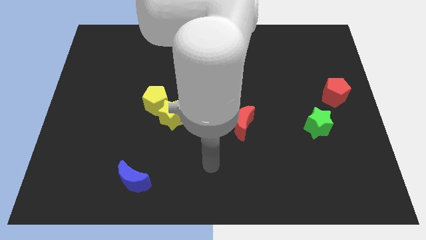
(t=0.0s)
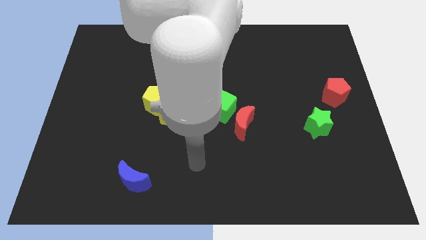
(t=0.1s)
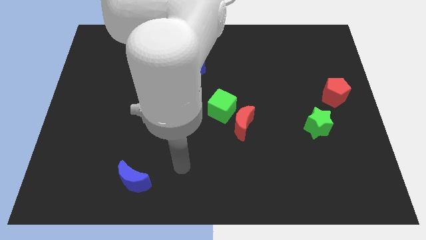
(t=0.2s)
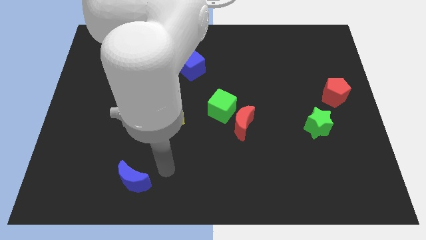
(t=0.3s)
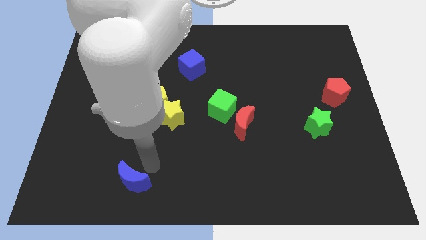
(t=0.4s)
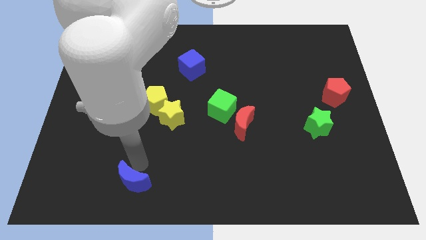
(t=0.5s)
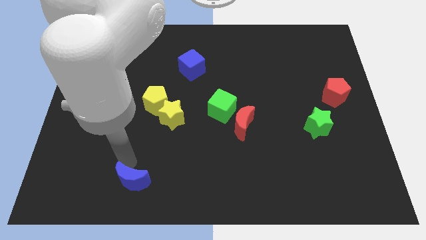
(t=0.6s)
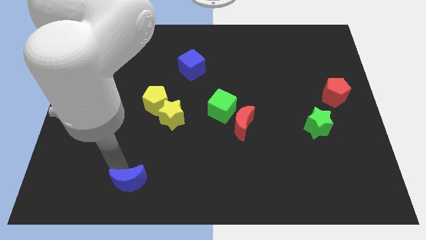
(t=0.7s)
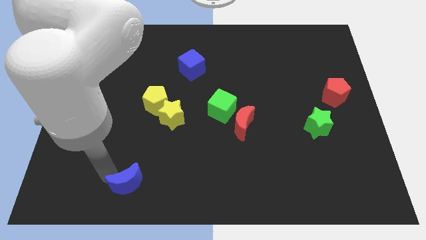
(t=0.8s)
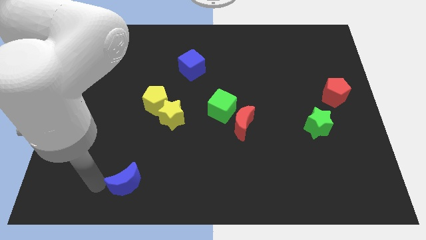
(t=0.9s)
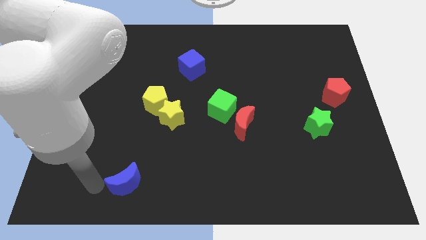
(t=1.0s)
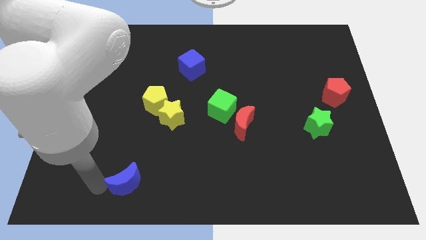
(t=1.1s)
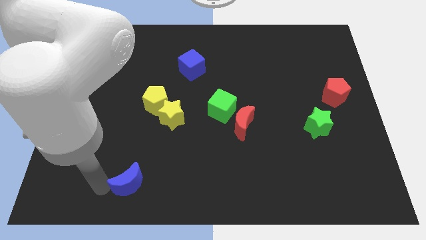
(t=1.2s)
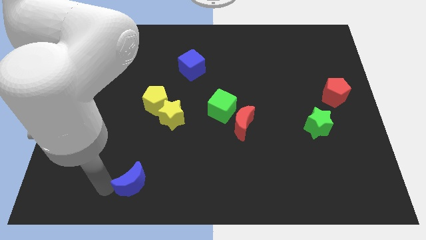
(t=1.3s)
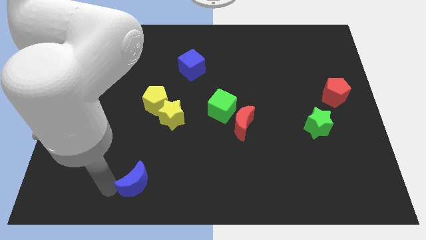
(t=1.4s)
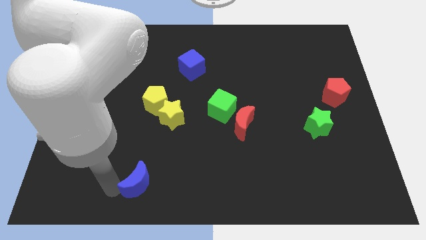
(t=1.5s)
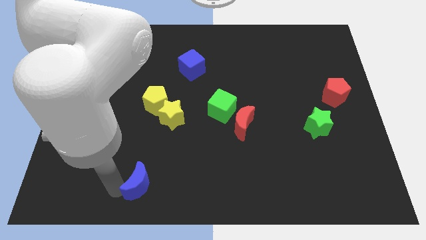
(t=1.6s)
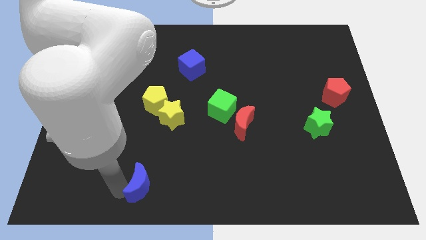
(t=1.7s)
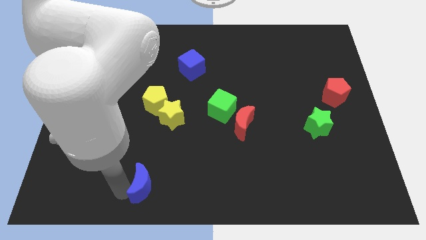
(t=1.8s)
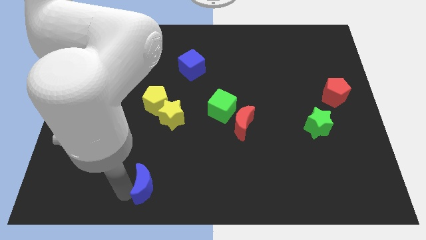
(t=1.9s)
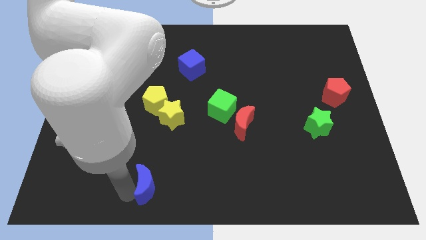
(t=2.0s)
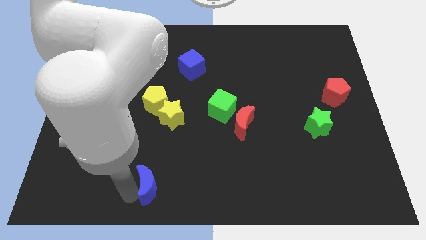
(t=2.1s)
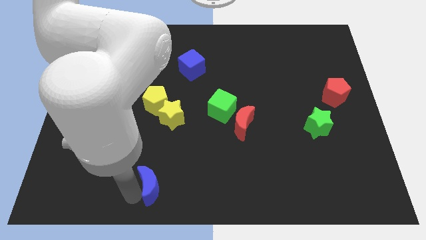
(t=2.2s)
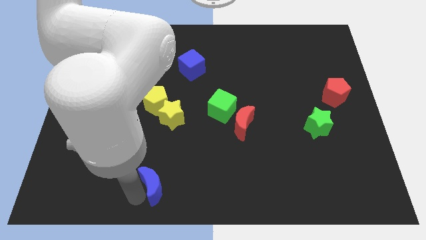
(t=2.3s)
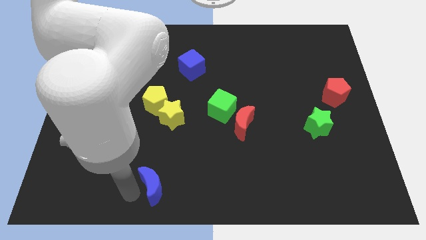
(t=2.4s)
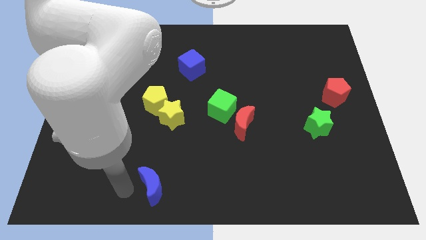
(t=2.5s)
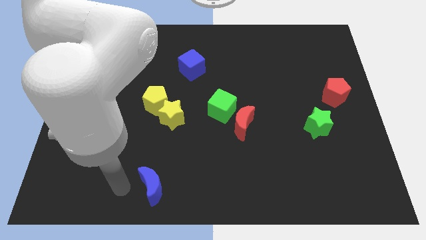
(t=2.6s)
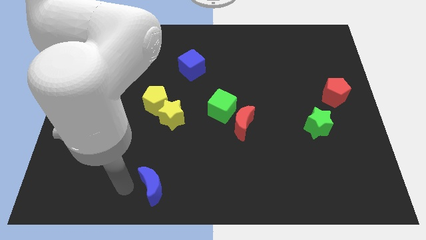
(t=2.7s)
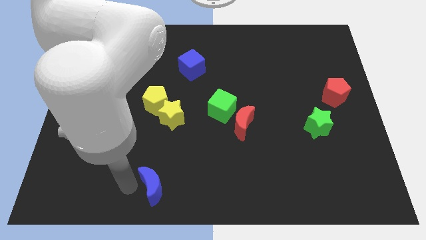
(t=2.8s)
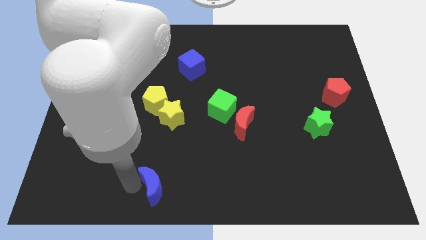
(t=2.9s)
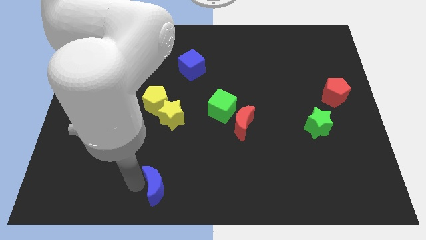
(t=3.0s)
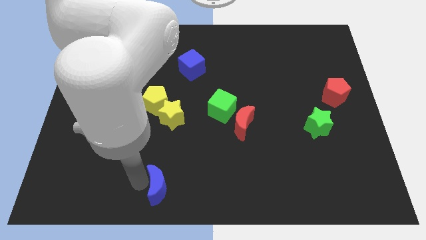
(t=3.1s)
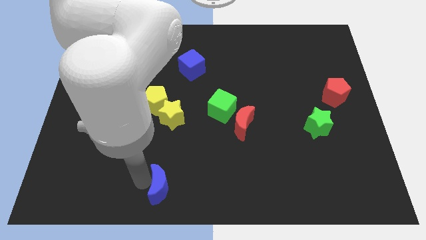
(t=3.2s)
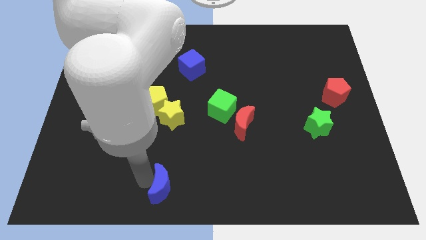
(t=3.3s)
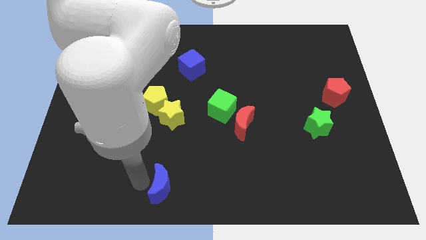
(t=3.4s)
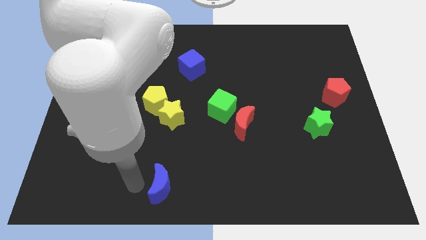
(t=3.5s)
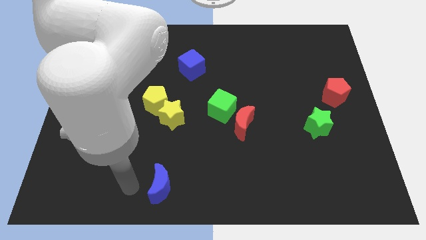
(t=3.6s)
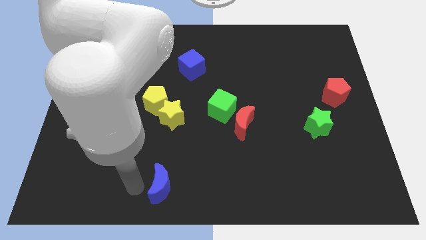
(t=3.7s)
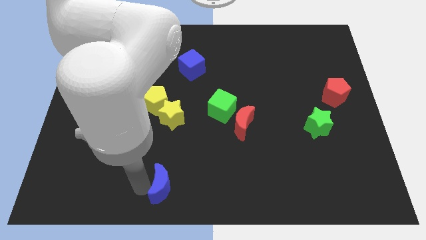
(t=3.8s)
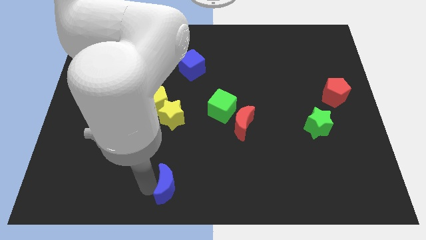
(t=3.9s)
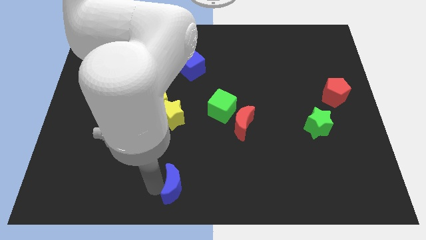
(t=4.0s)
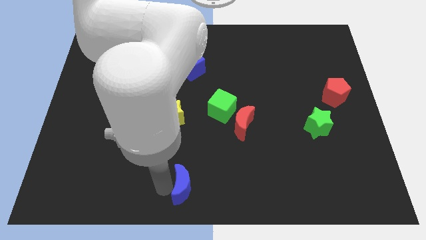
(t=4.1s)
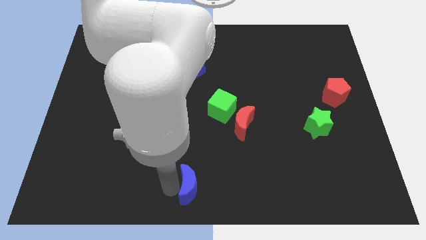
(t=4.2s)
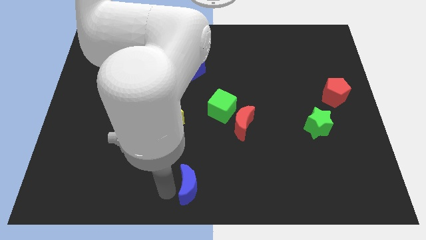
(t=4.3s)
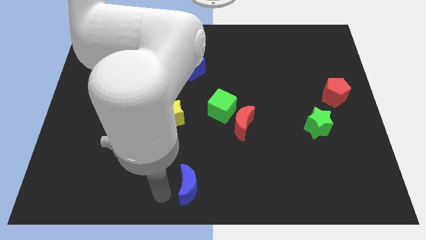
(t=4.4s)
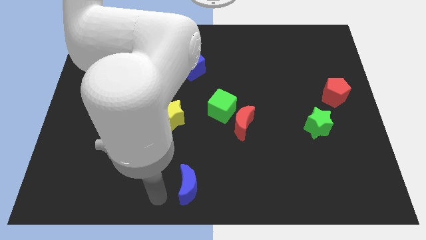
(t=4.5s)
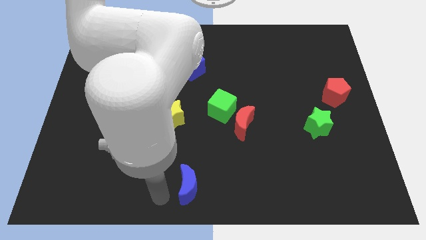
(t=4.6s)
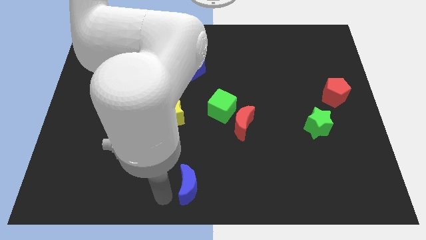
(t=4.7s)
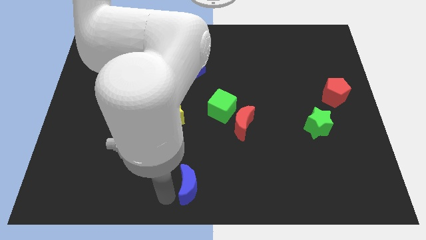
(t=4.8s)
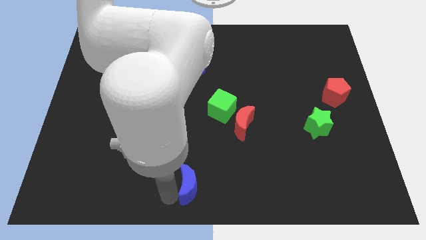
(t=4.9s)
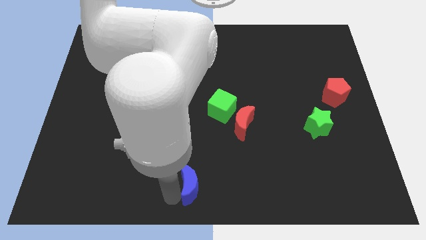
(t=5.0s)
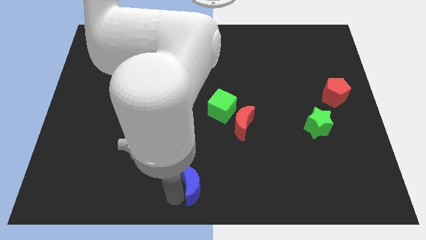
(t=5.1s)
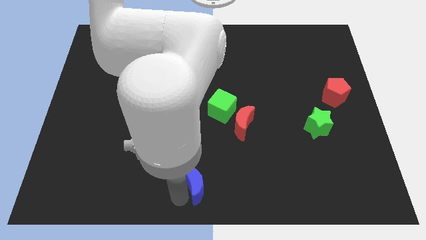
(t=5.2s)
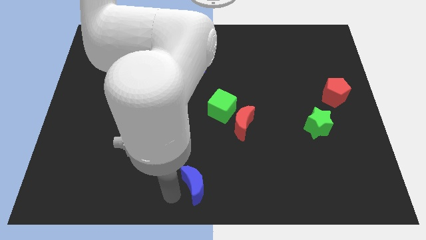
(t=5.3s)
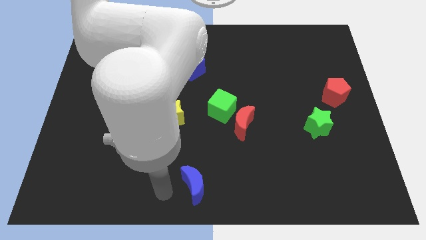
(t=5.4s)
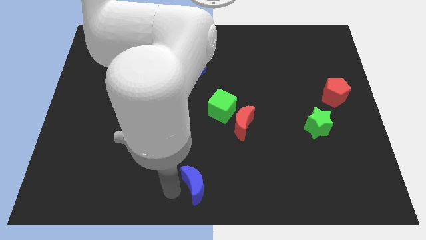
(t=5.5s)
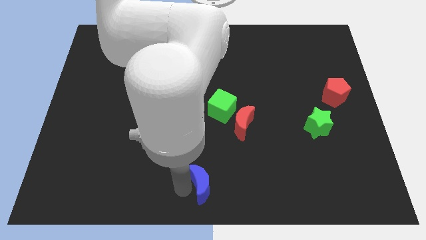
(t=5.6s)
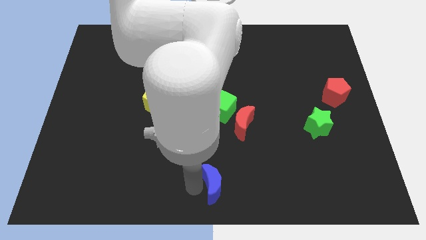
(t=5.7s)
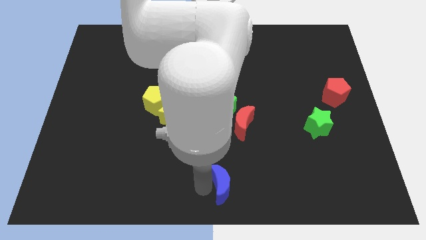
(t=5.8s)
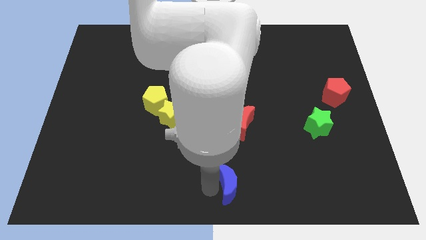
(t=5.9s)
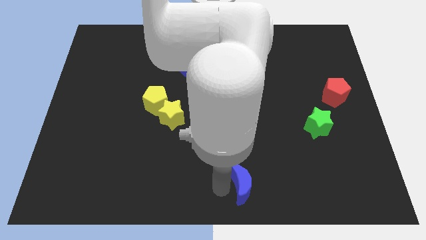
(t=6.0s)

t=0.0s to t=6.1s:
slide the blue moon right

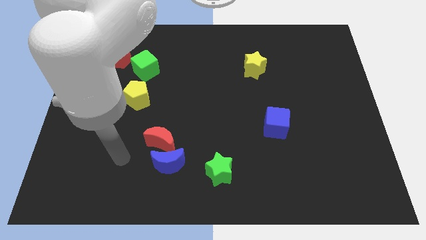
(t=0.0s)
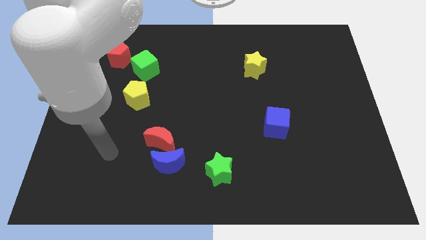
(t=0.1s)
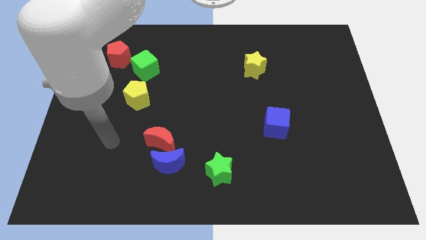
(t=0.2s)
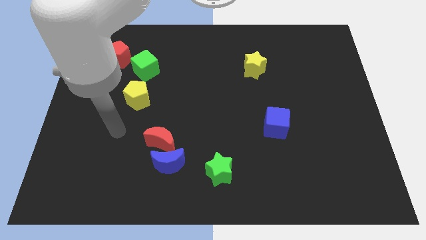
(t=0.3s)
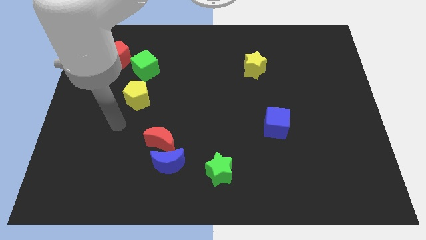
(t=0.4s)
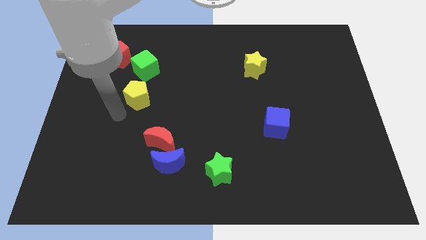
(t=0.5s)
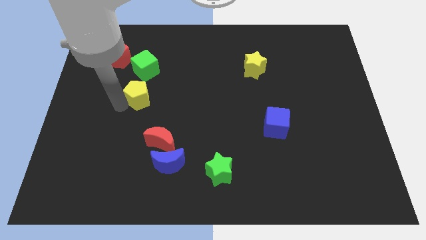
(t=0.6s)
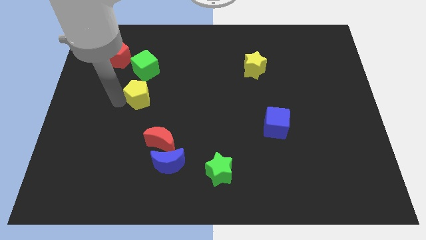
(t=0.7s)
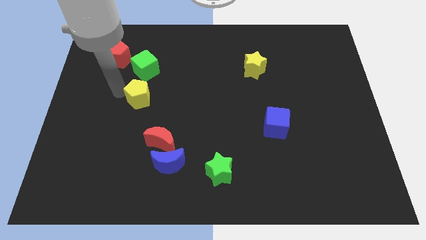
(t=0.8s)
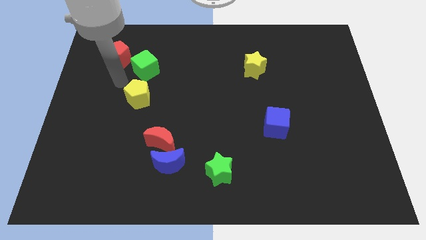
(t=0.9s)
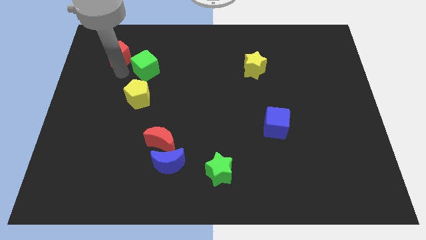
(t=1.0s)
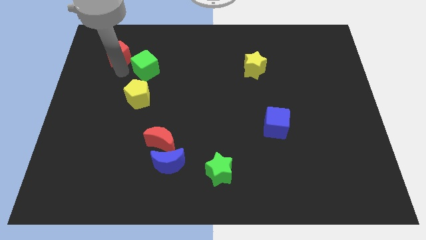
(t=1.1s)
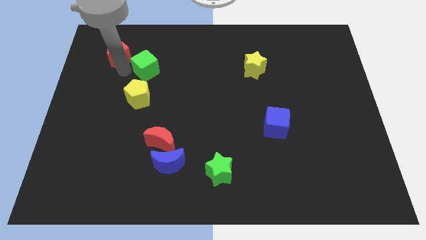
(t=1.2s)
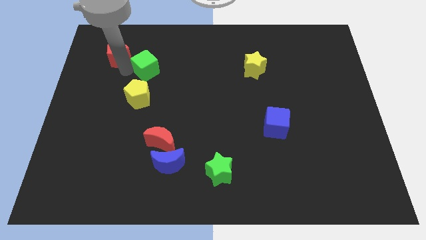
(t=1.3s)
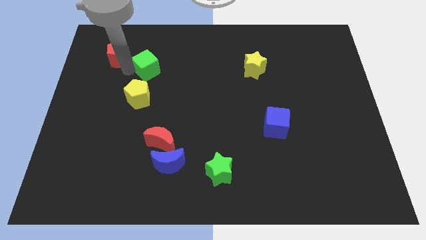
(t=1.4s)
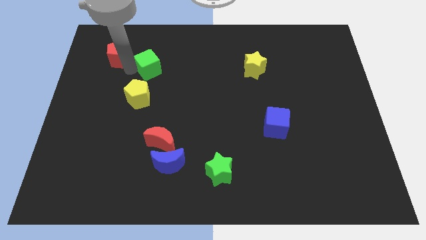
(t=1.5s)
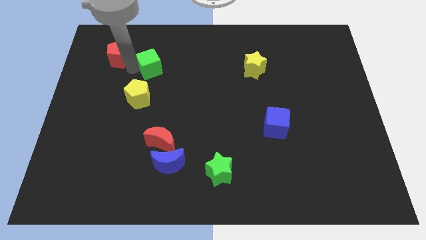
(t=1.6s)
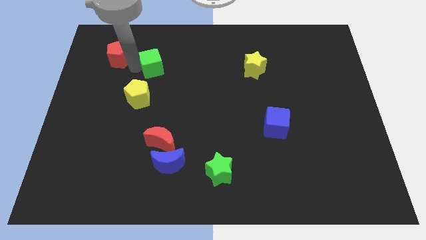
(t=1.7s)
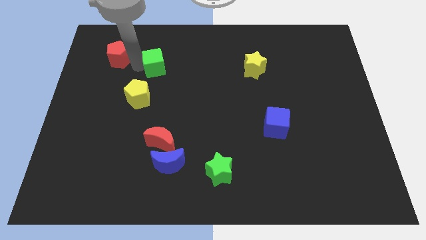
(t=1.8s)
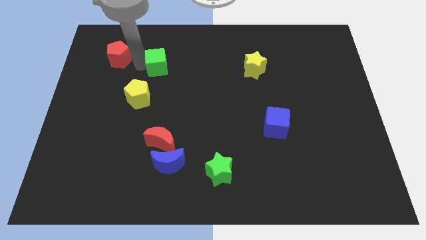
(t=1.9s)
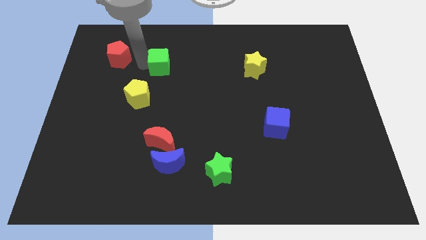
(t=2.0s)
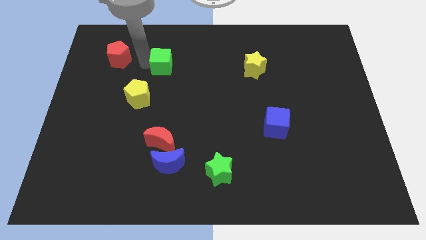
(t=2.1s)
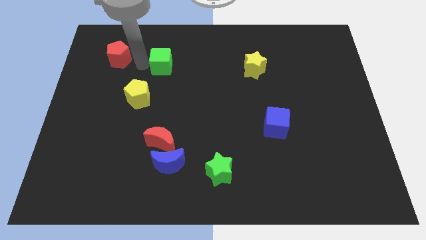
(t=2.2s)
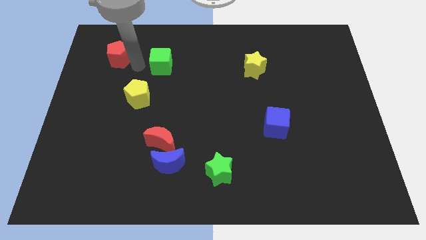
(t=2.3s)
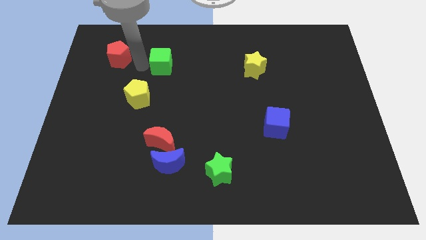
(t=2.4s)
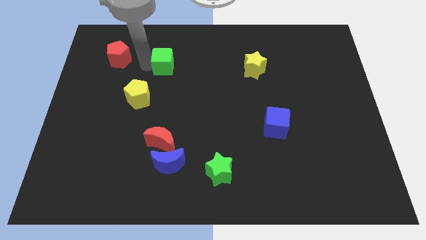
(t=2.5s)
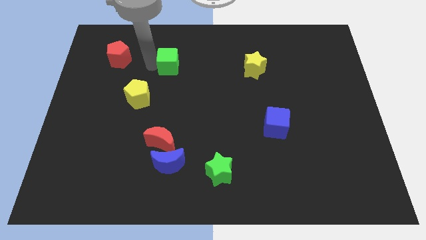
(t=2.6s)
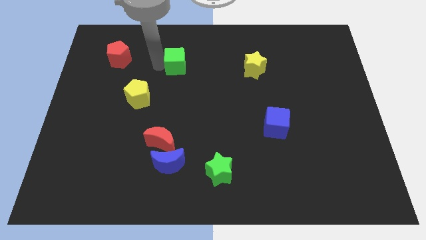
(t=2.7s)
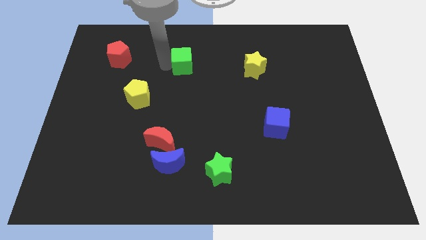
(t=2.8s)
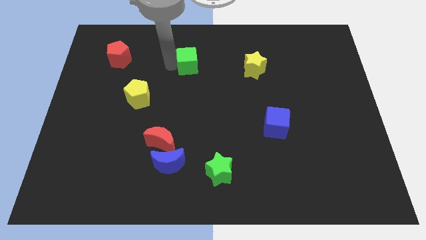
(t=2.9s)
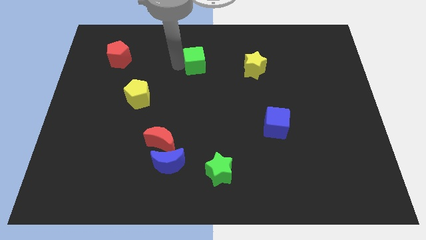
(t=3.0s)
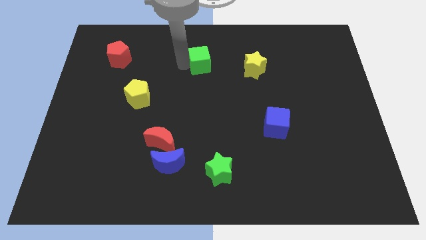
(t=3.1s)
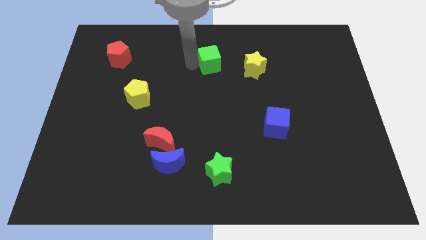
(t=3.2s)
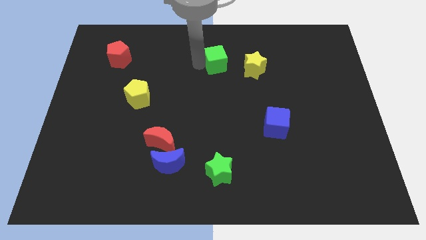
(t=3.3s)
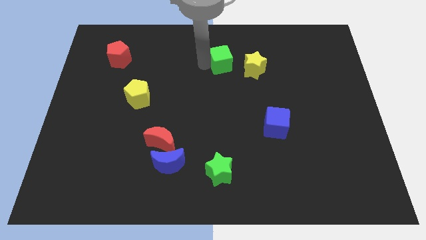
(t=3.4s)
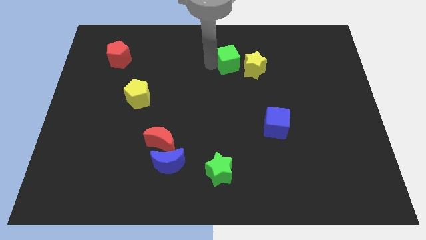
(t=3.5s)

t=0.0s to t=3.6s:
slide the green cube to the right
